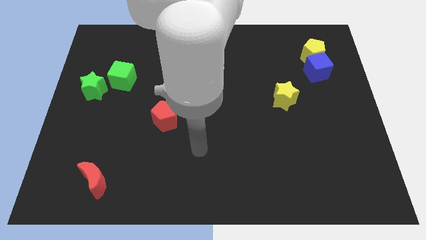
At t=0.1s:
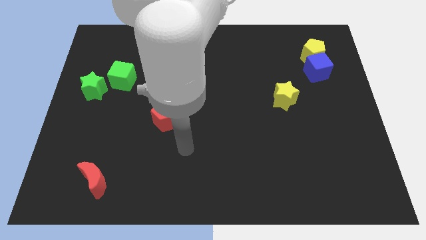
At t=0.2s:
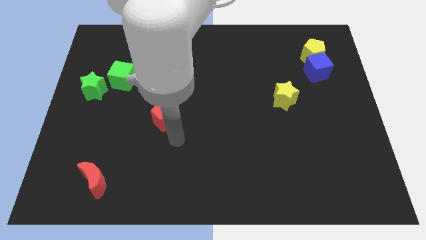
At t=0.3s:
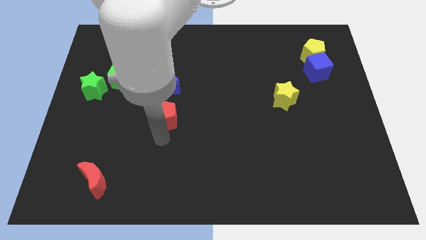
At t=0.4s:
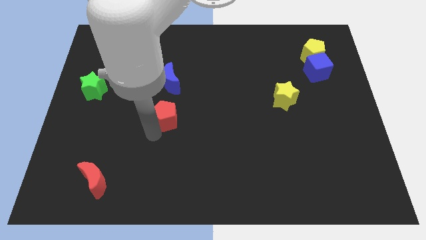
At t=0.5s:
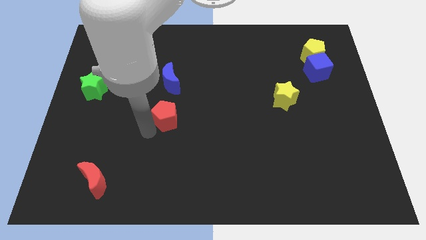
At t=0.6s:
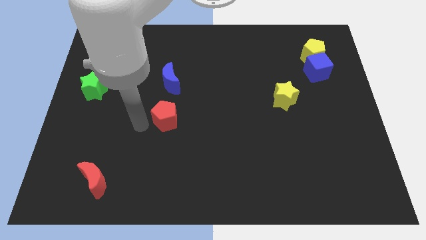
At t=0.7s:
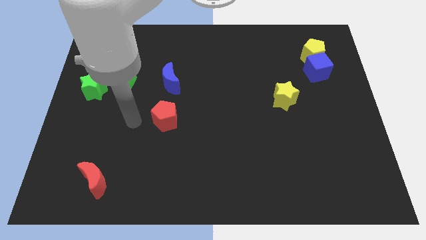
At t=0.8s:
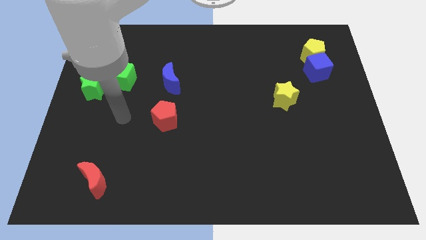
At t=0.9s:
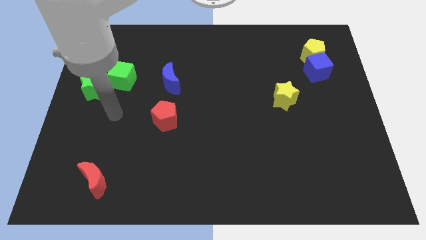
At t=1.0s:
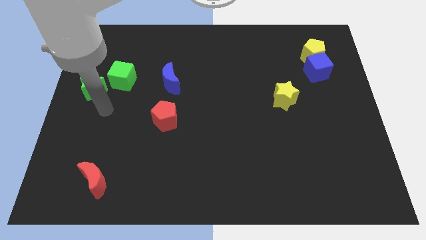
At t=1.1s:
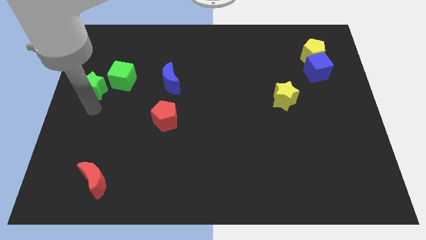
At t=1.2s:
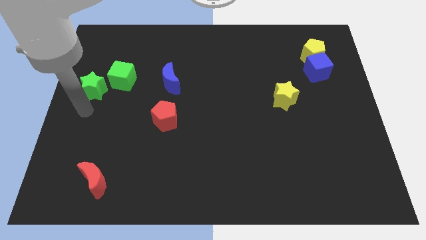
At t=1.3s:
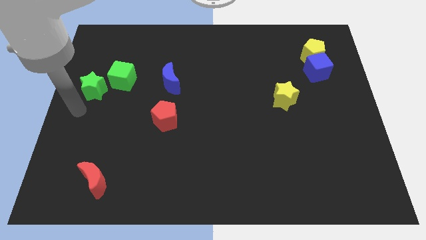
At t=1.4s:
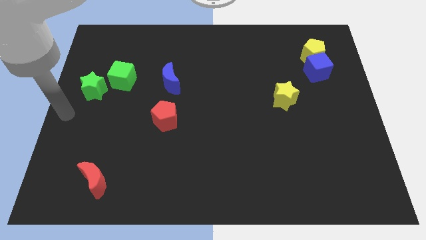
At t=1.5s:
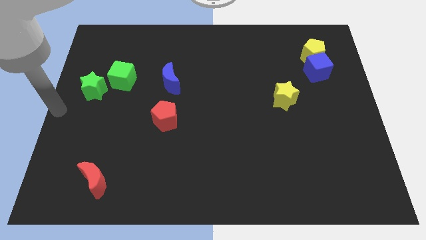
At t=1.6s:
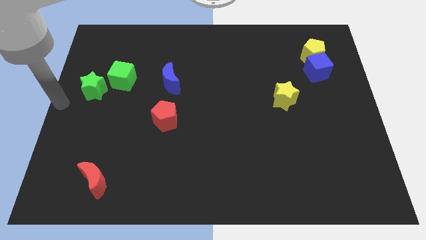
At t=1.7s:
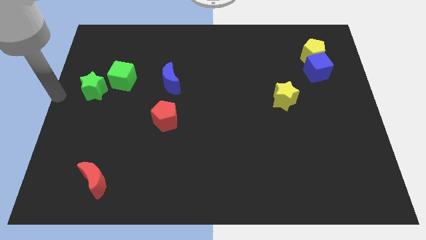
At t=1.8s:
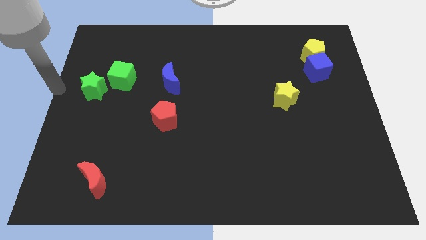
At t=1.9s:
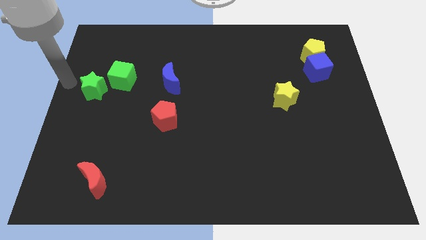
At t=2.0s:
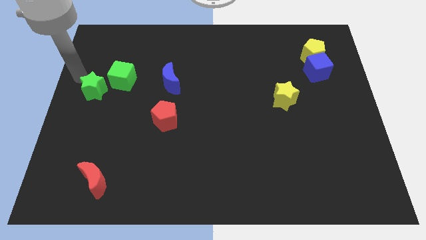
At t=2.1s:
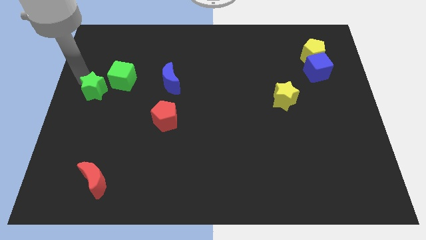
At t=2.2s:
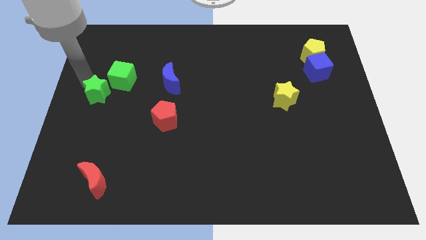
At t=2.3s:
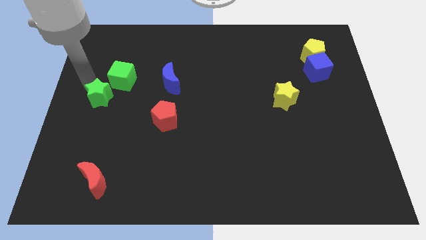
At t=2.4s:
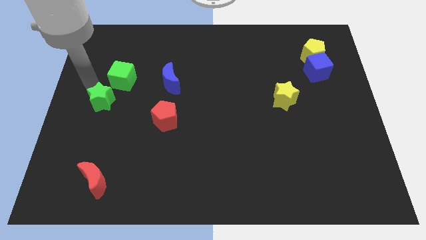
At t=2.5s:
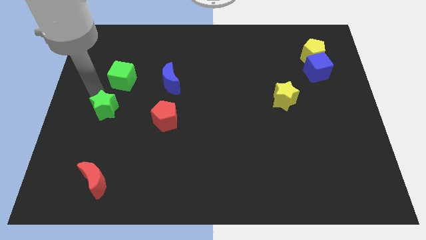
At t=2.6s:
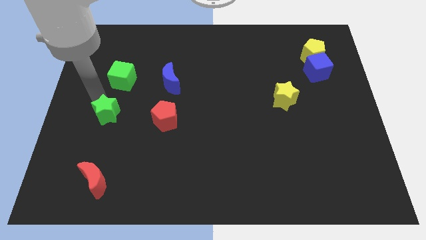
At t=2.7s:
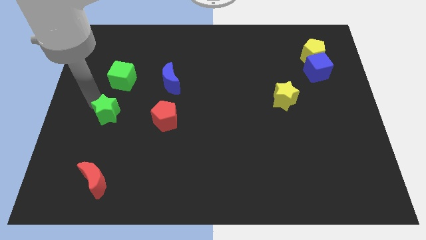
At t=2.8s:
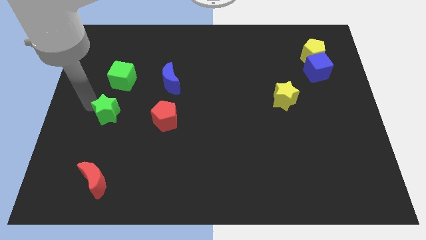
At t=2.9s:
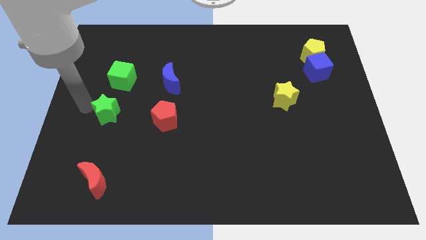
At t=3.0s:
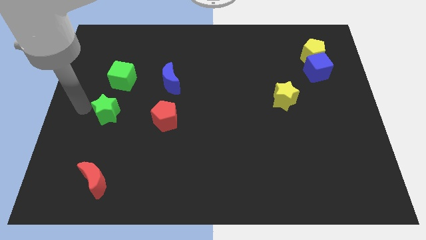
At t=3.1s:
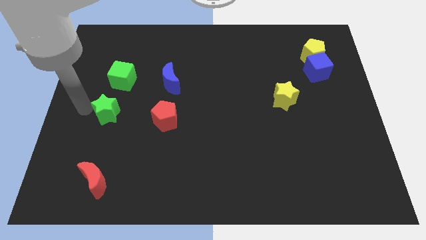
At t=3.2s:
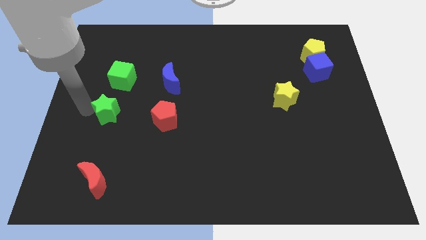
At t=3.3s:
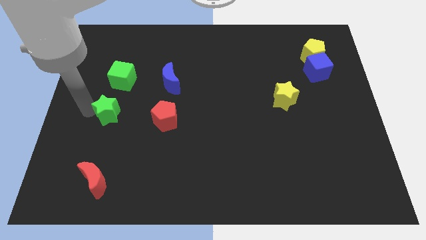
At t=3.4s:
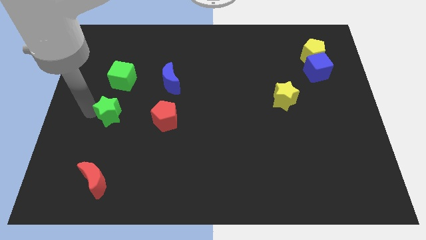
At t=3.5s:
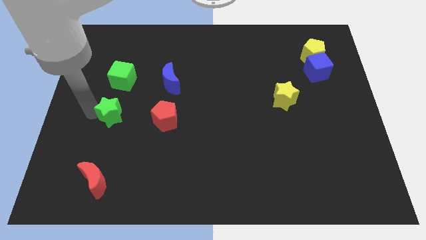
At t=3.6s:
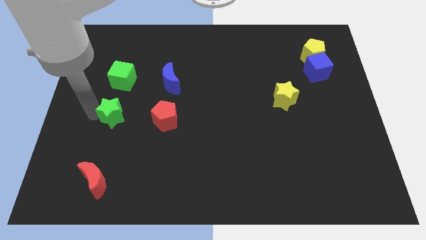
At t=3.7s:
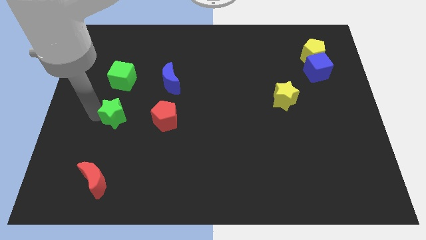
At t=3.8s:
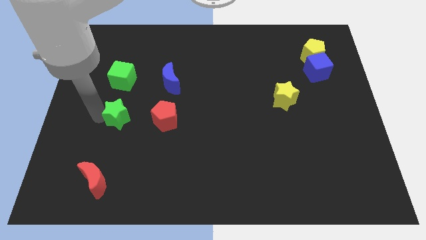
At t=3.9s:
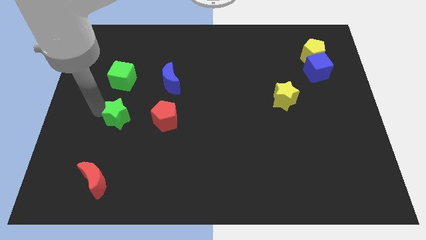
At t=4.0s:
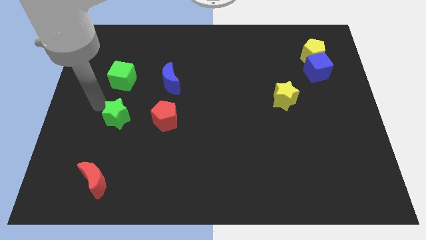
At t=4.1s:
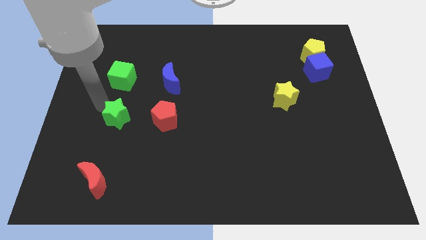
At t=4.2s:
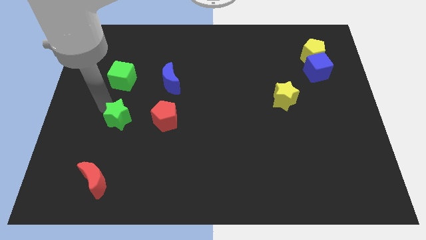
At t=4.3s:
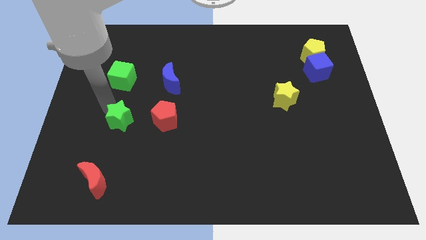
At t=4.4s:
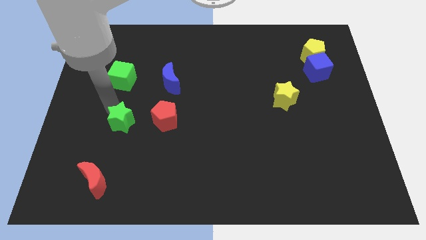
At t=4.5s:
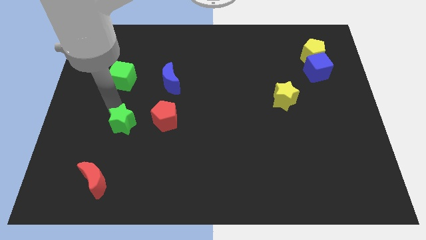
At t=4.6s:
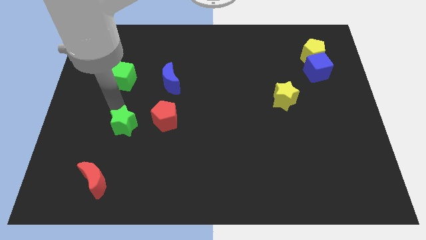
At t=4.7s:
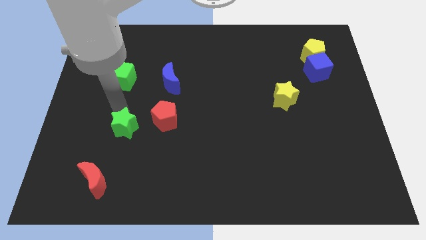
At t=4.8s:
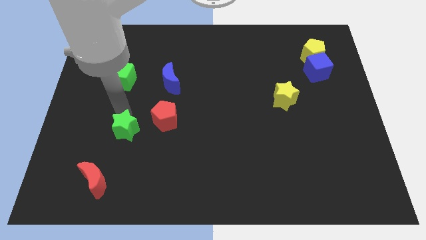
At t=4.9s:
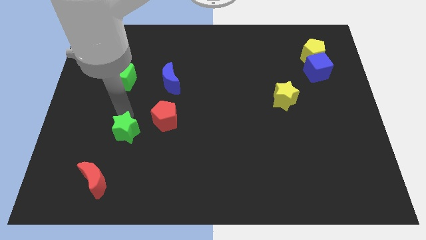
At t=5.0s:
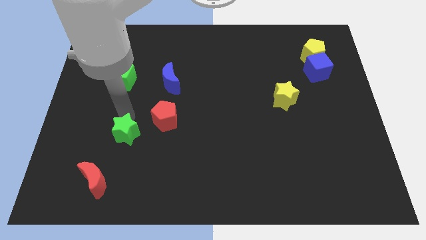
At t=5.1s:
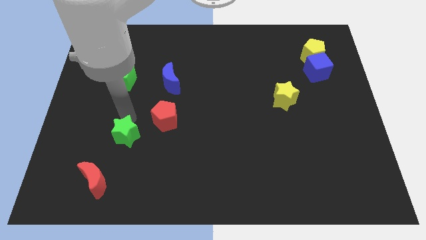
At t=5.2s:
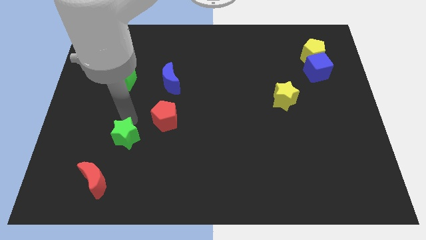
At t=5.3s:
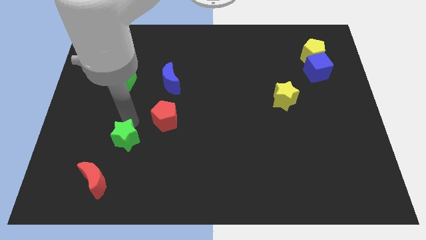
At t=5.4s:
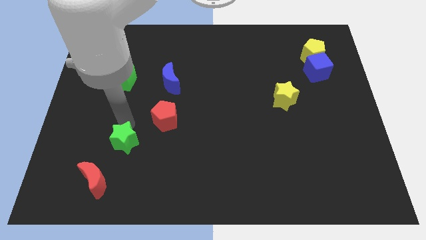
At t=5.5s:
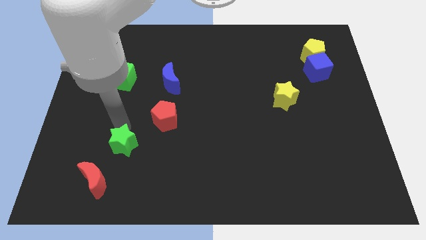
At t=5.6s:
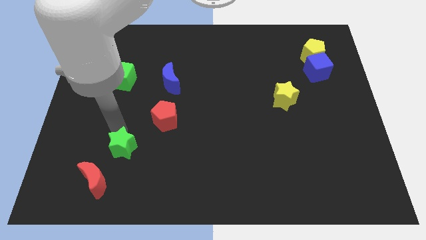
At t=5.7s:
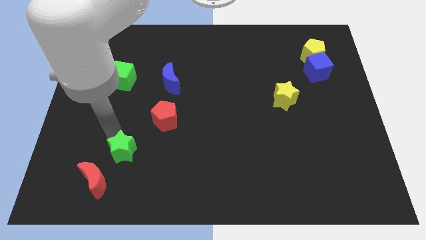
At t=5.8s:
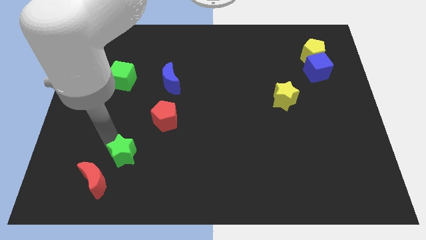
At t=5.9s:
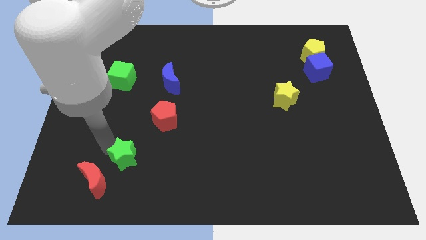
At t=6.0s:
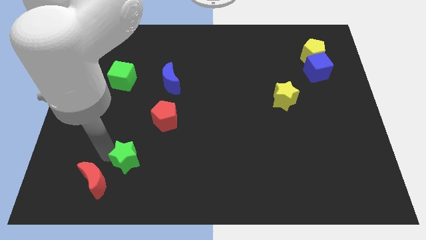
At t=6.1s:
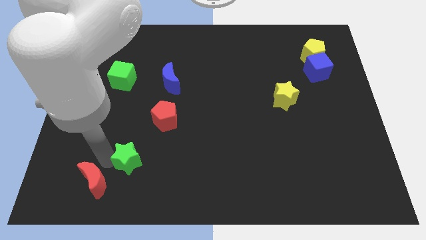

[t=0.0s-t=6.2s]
slide the green star downwards and then right

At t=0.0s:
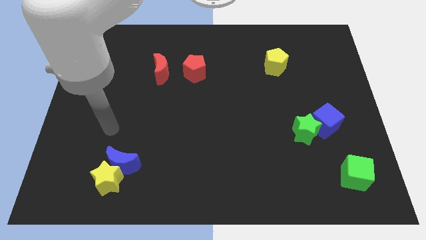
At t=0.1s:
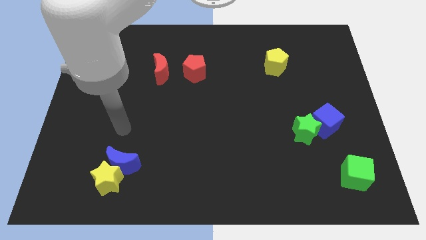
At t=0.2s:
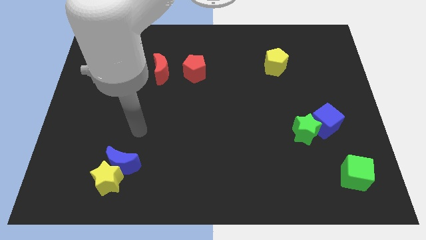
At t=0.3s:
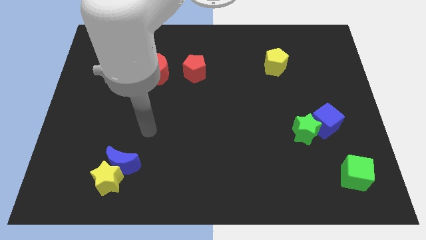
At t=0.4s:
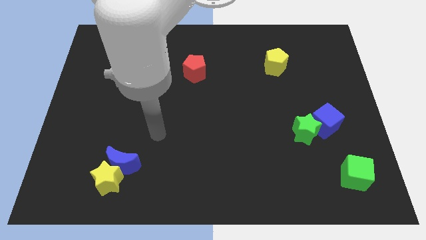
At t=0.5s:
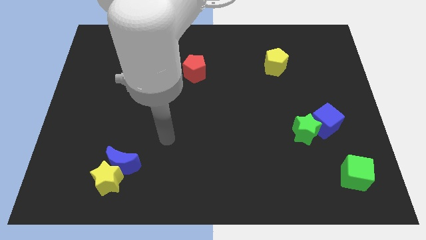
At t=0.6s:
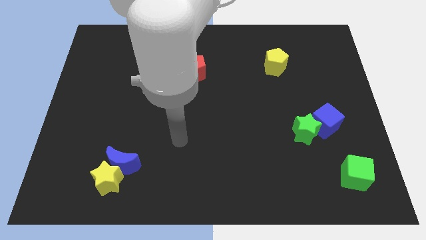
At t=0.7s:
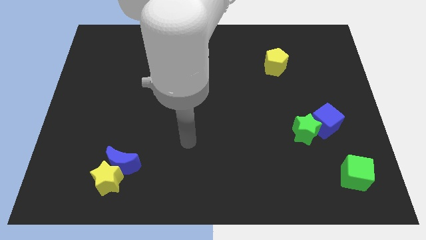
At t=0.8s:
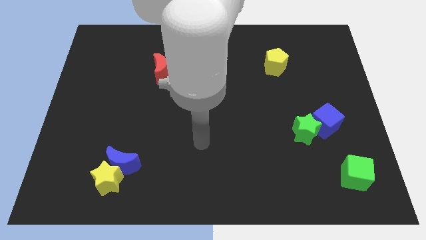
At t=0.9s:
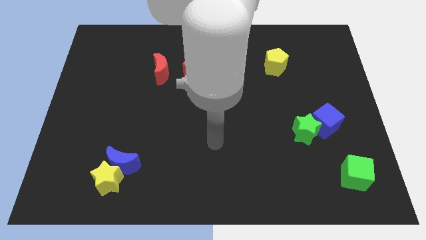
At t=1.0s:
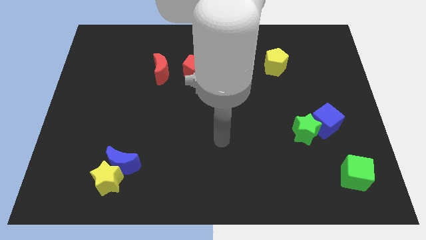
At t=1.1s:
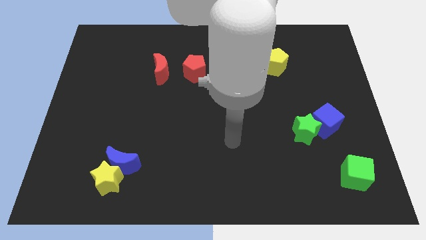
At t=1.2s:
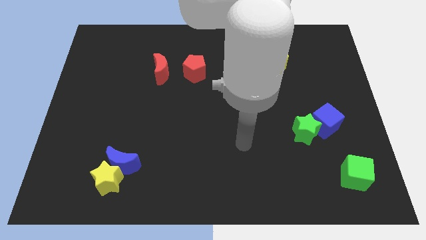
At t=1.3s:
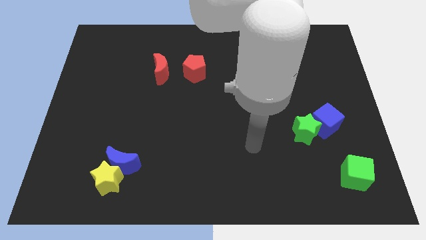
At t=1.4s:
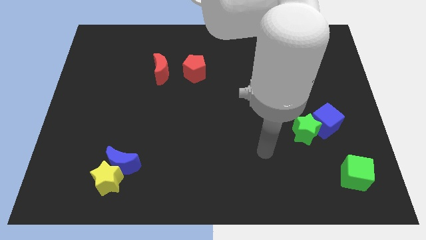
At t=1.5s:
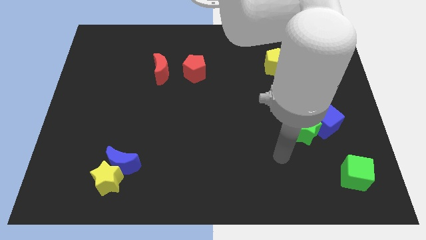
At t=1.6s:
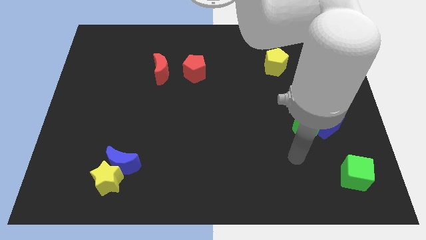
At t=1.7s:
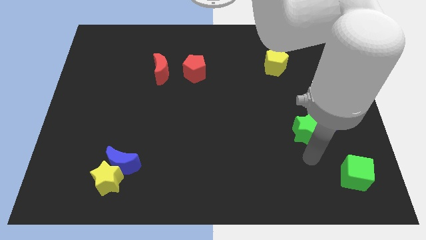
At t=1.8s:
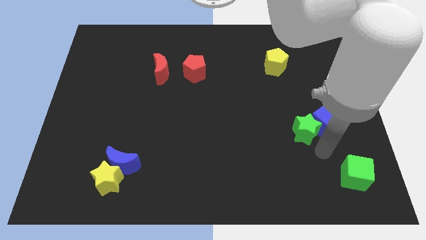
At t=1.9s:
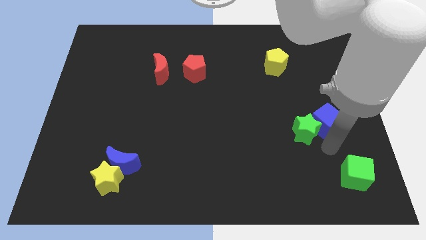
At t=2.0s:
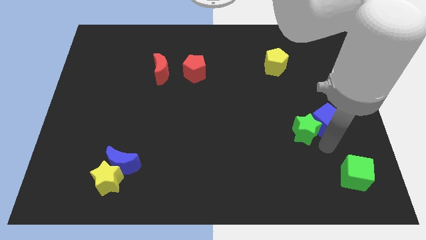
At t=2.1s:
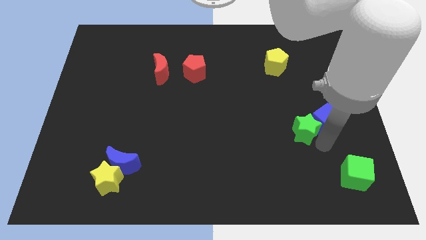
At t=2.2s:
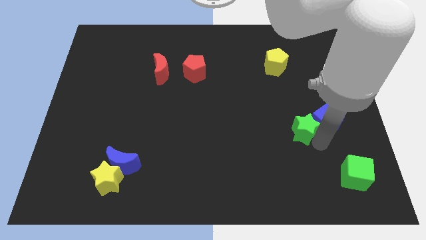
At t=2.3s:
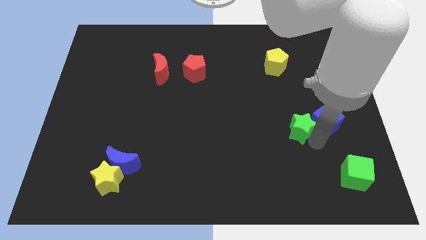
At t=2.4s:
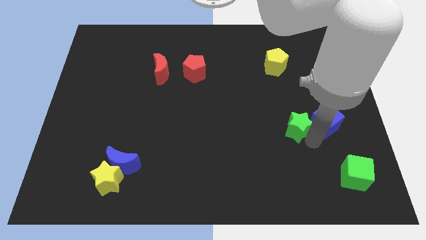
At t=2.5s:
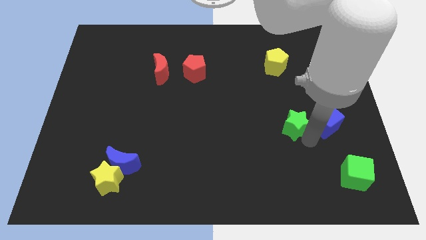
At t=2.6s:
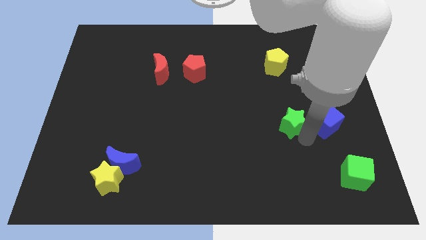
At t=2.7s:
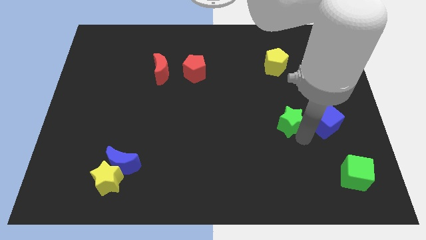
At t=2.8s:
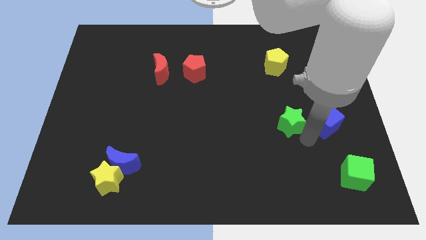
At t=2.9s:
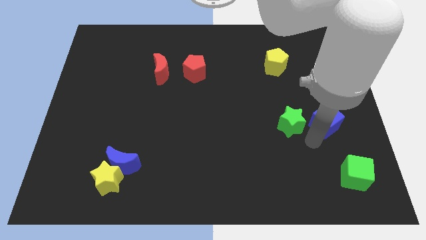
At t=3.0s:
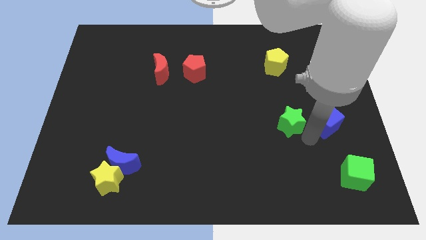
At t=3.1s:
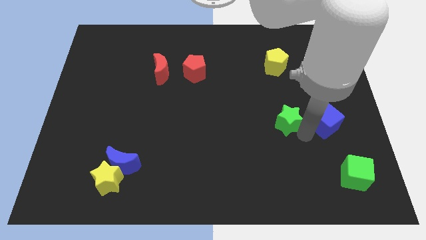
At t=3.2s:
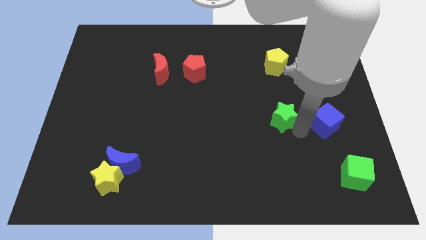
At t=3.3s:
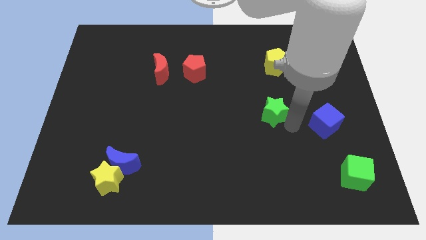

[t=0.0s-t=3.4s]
slightly push the green star up and to the left diagonally
